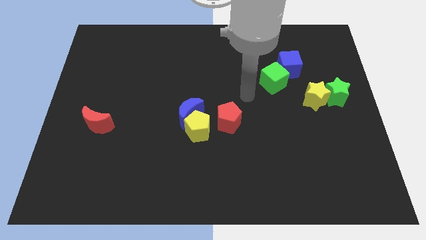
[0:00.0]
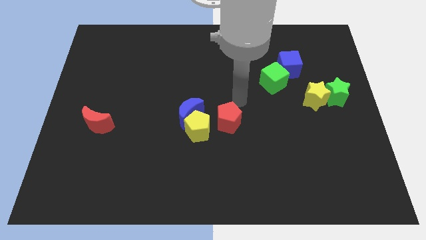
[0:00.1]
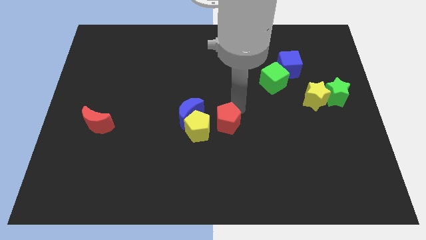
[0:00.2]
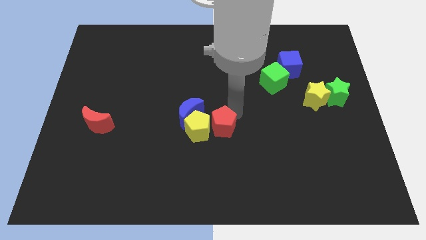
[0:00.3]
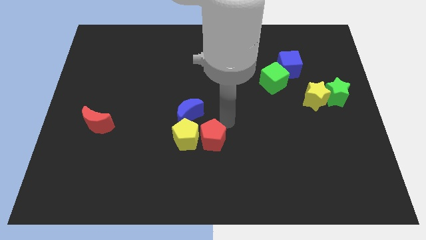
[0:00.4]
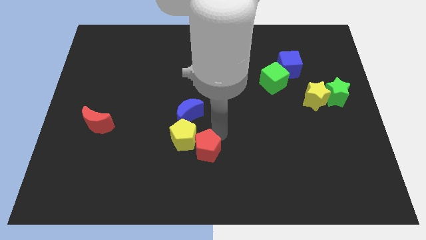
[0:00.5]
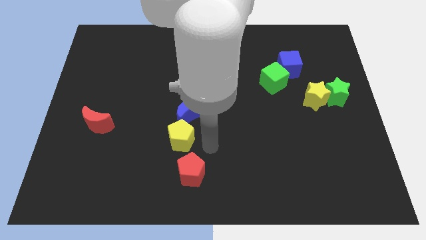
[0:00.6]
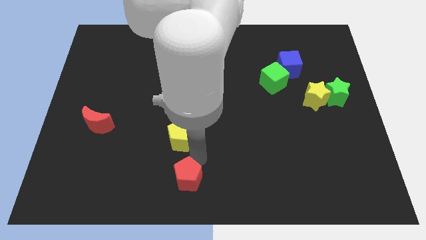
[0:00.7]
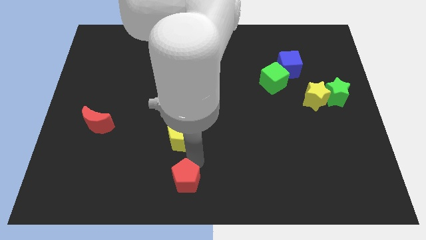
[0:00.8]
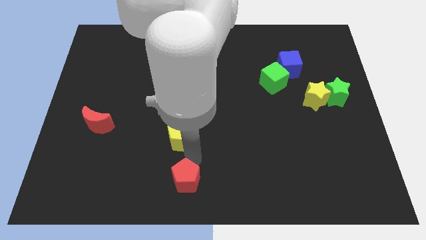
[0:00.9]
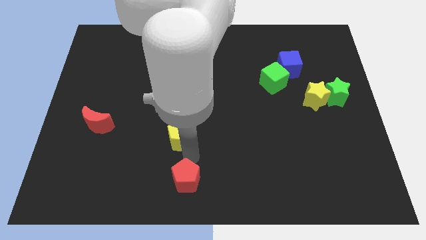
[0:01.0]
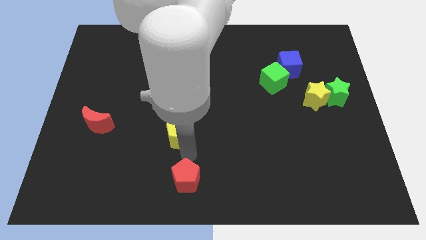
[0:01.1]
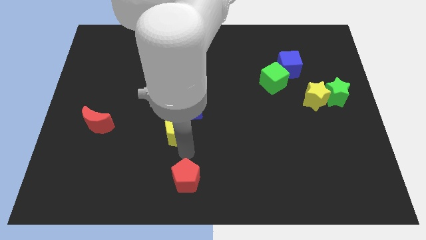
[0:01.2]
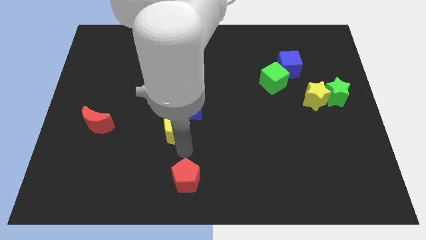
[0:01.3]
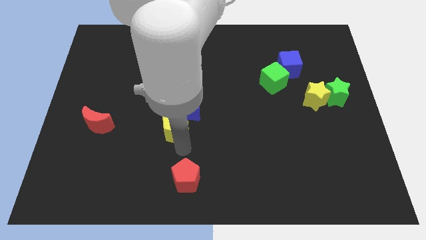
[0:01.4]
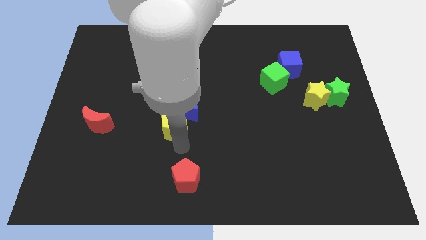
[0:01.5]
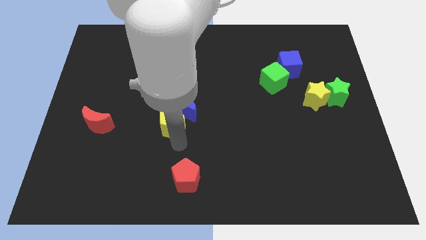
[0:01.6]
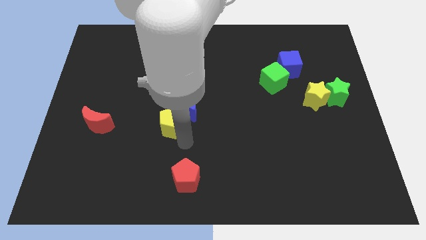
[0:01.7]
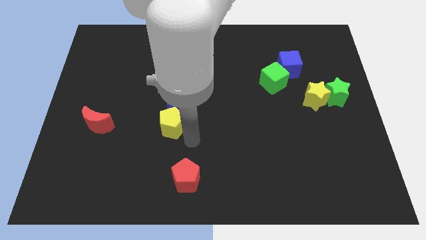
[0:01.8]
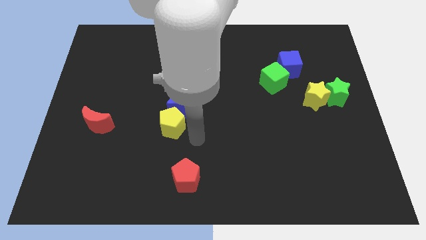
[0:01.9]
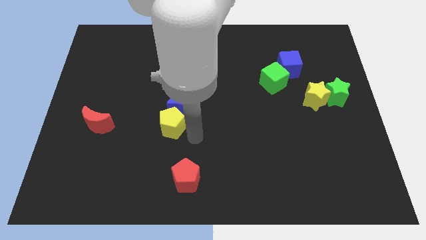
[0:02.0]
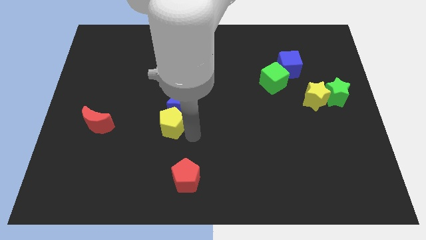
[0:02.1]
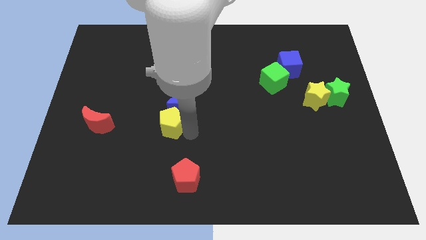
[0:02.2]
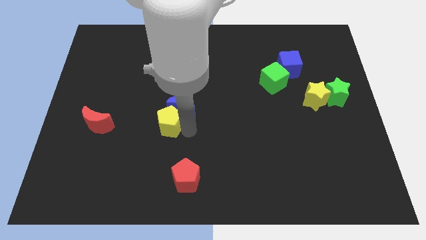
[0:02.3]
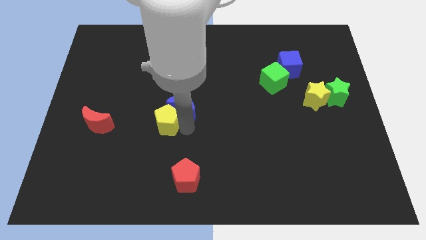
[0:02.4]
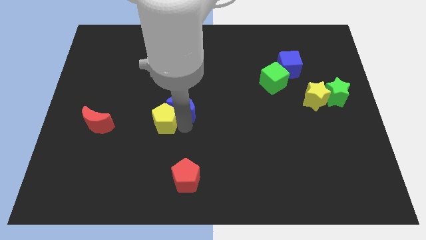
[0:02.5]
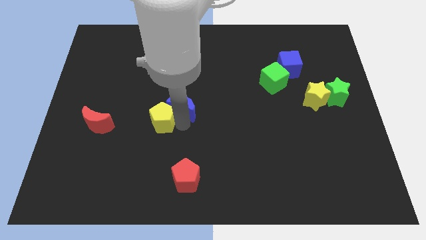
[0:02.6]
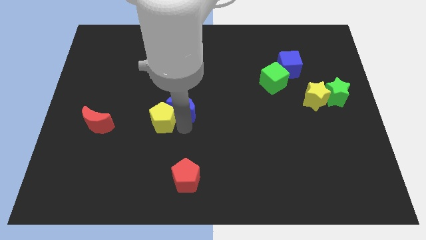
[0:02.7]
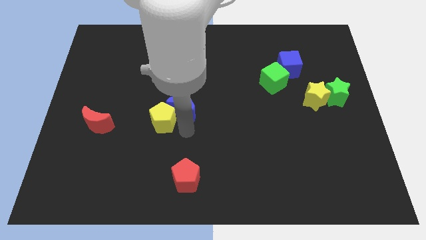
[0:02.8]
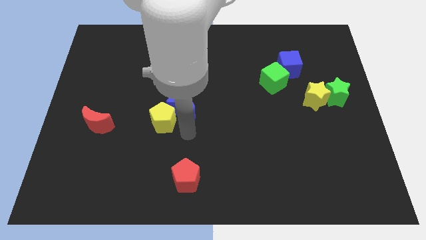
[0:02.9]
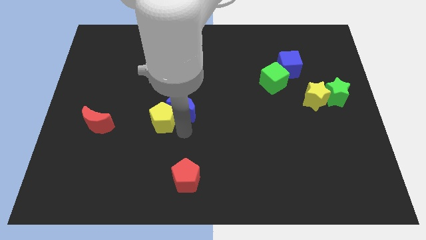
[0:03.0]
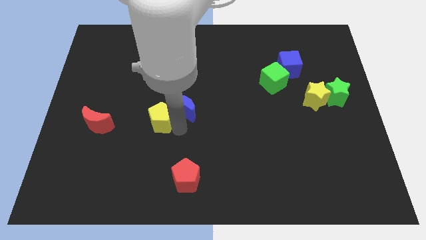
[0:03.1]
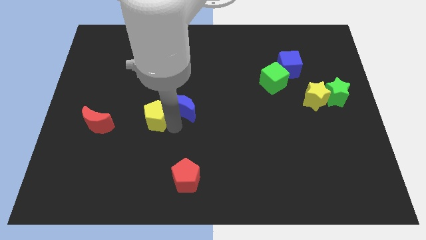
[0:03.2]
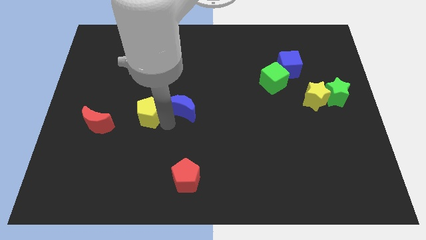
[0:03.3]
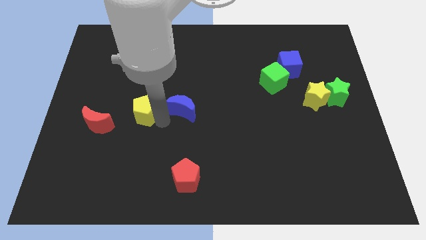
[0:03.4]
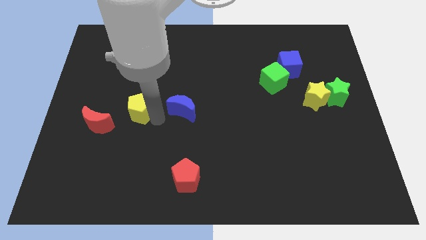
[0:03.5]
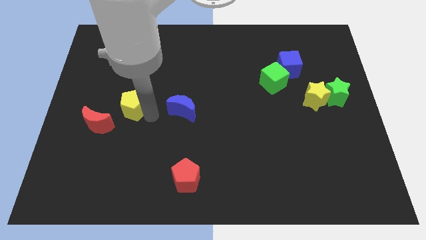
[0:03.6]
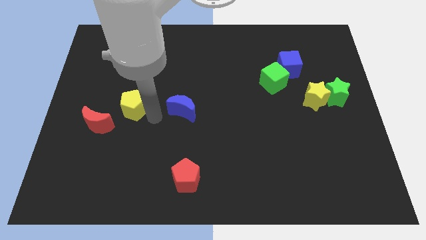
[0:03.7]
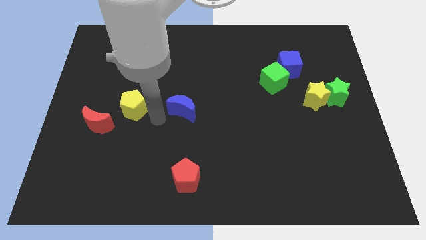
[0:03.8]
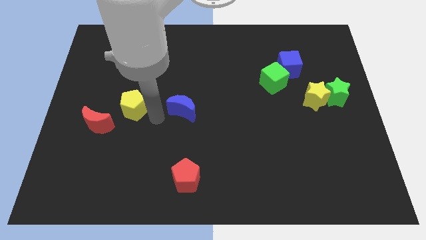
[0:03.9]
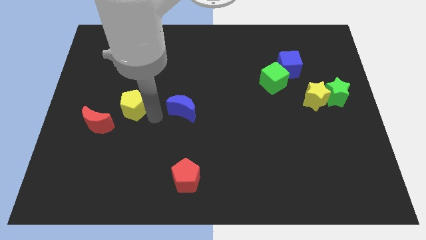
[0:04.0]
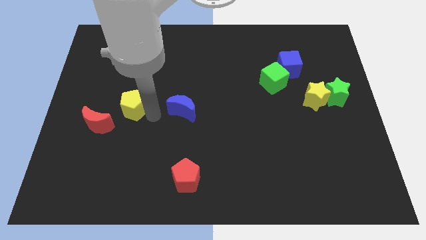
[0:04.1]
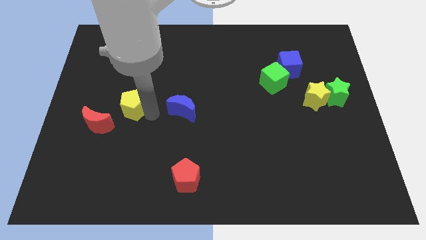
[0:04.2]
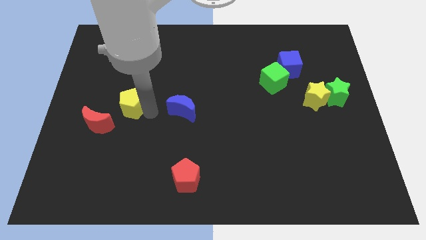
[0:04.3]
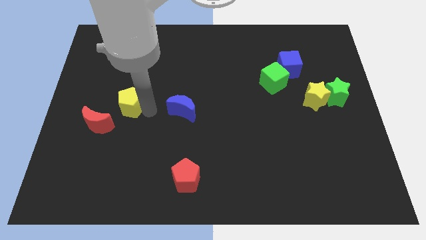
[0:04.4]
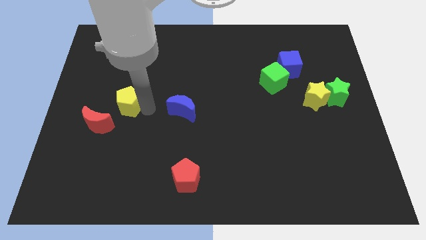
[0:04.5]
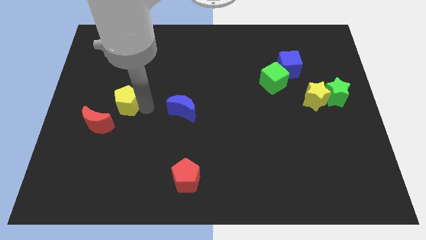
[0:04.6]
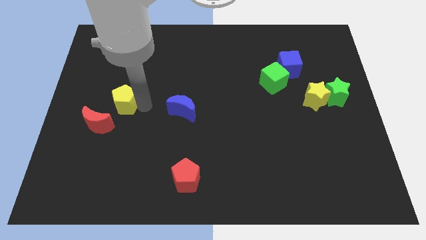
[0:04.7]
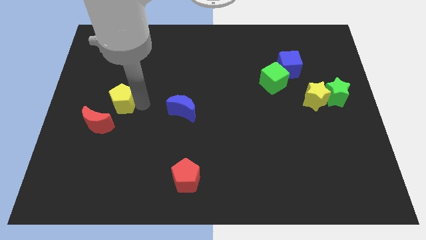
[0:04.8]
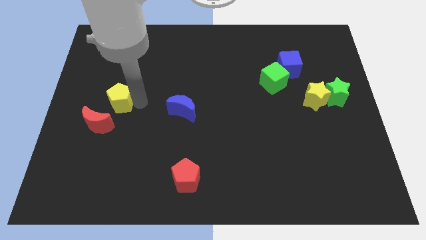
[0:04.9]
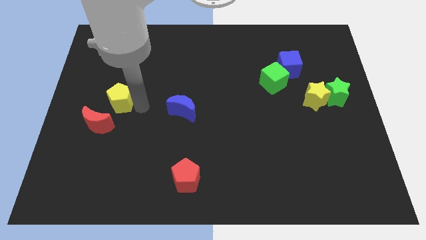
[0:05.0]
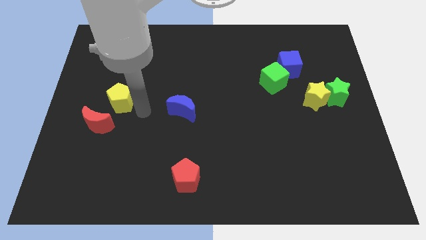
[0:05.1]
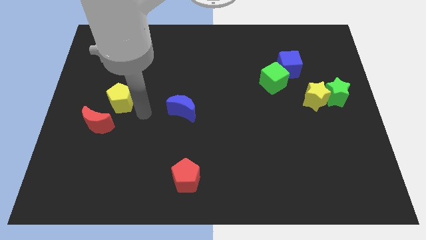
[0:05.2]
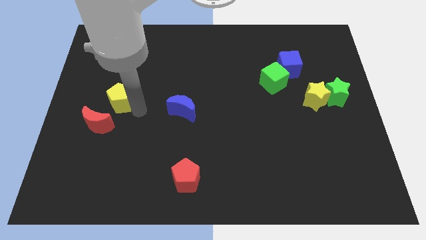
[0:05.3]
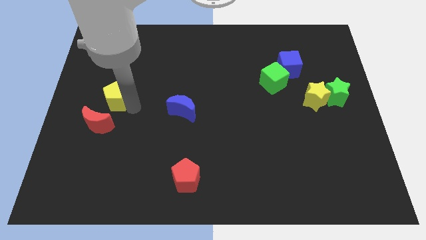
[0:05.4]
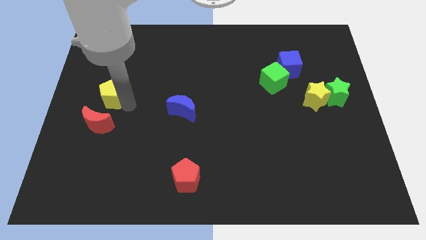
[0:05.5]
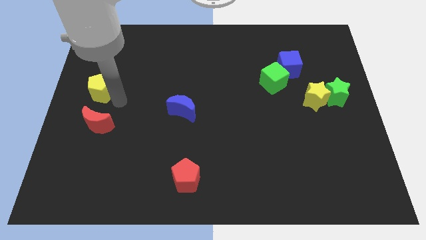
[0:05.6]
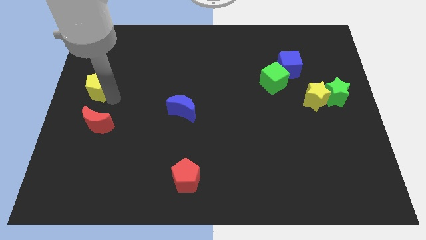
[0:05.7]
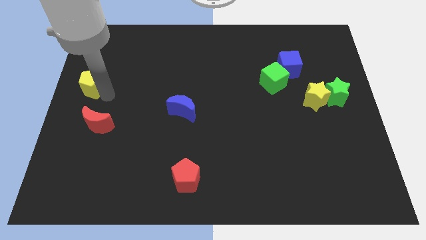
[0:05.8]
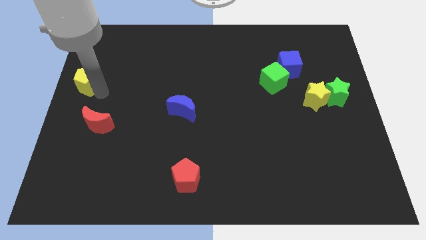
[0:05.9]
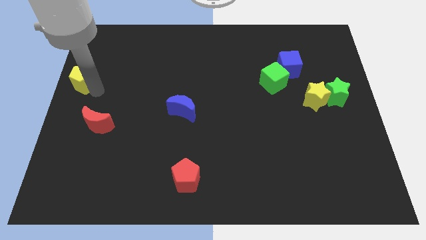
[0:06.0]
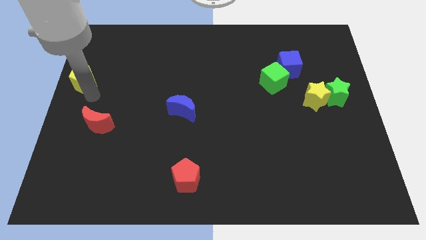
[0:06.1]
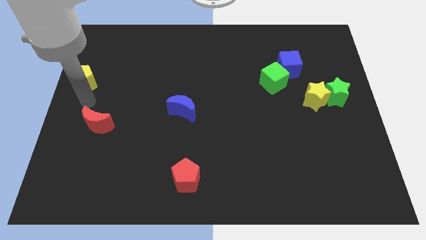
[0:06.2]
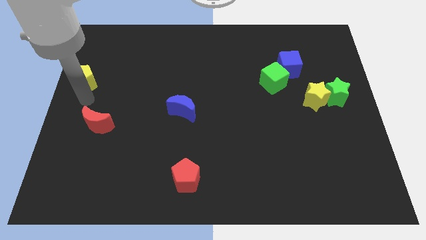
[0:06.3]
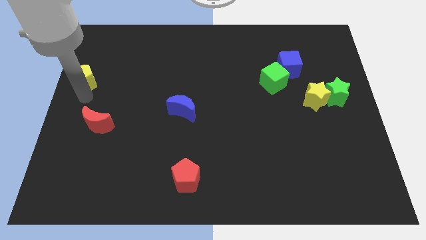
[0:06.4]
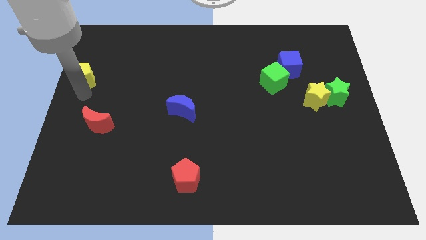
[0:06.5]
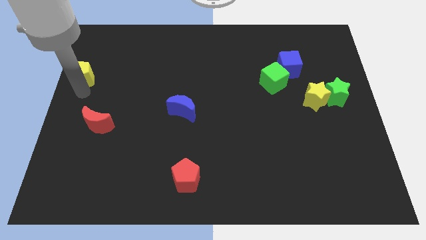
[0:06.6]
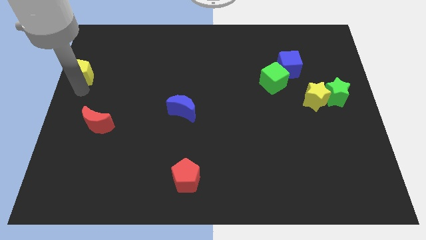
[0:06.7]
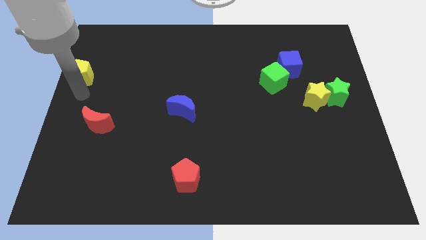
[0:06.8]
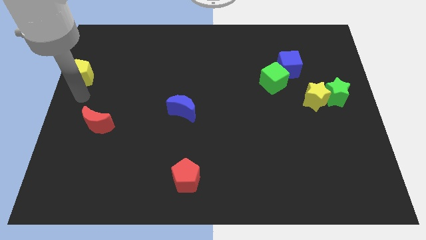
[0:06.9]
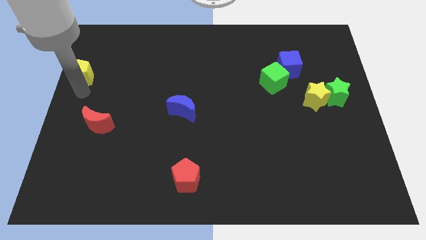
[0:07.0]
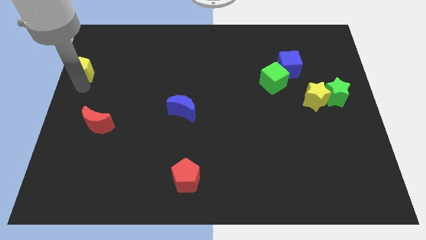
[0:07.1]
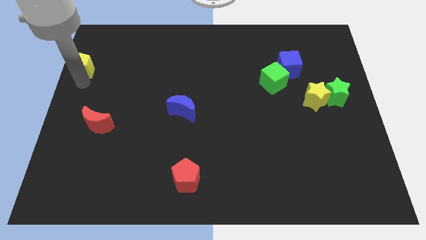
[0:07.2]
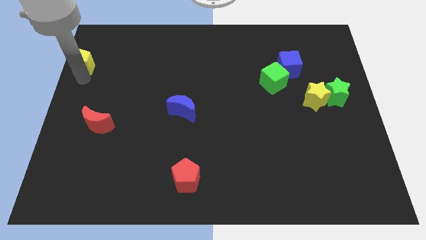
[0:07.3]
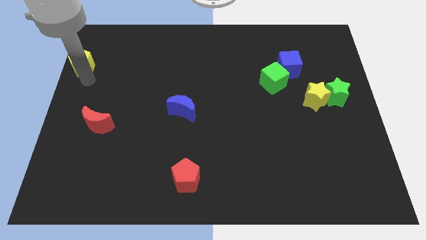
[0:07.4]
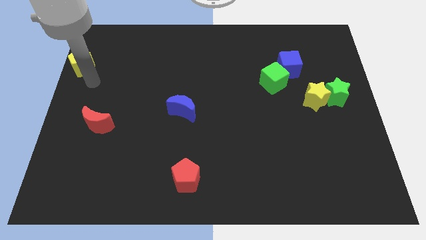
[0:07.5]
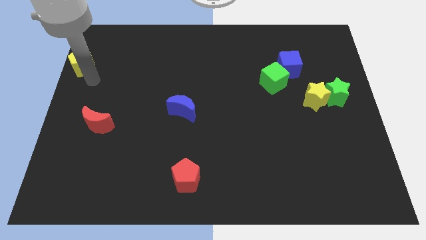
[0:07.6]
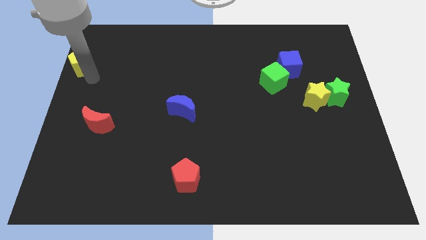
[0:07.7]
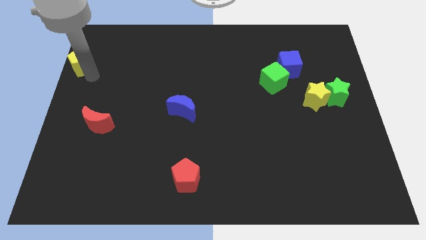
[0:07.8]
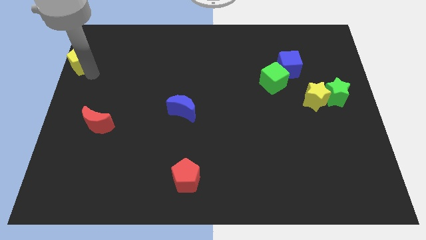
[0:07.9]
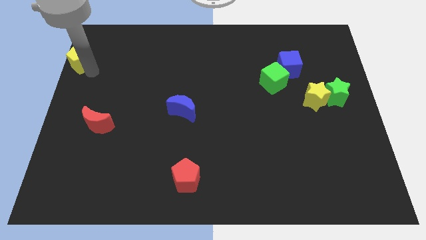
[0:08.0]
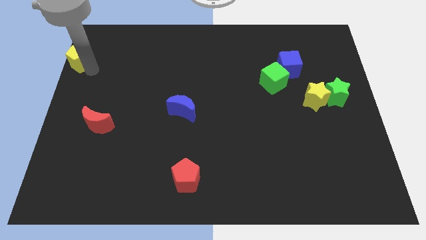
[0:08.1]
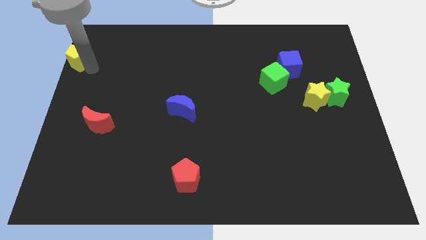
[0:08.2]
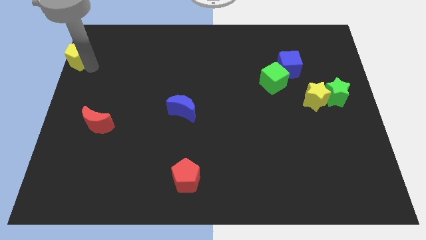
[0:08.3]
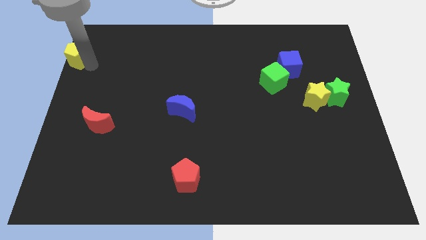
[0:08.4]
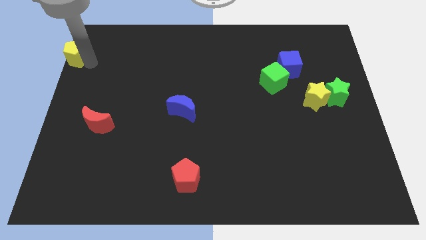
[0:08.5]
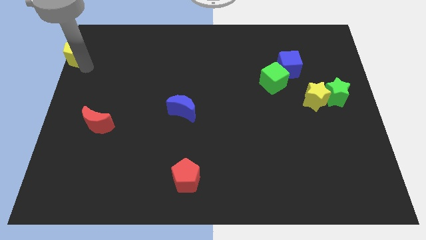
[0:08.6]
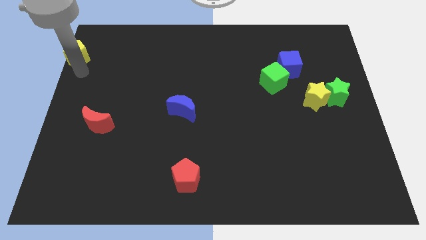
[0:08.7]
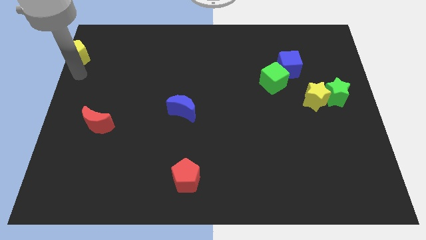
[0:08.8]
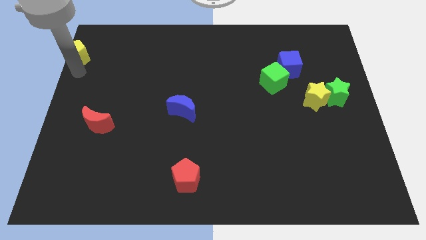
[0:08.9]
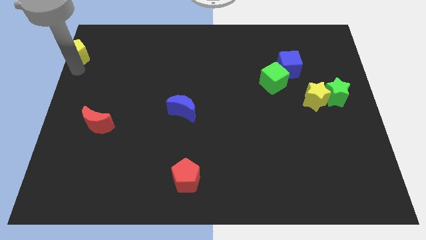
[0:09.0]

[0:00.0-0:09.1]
put the yellow pentagon to the top left of the board
